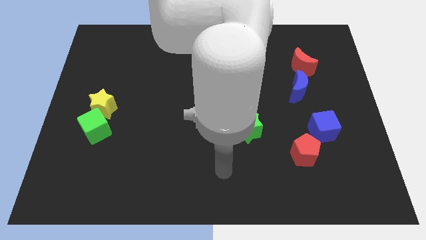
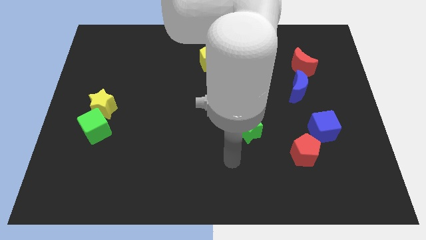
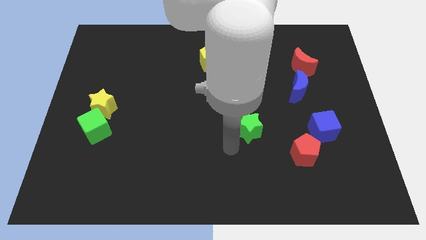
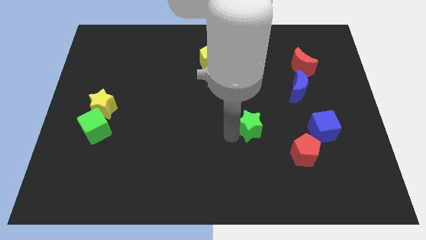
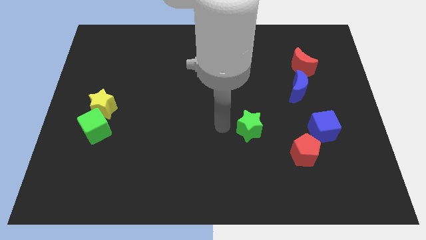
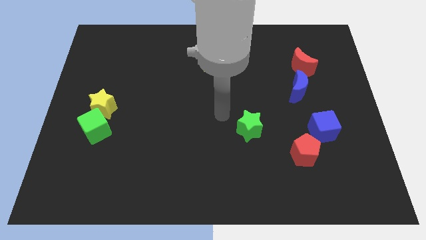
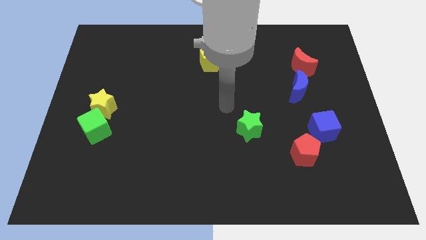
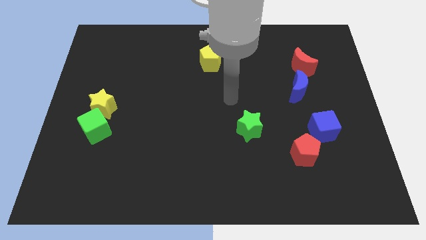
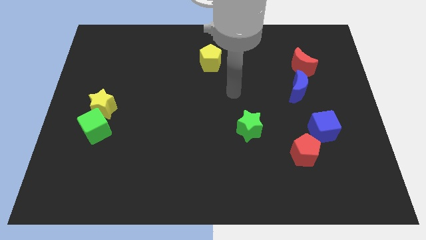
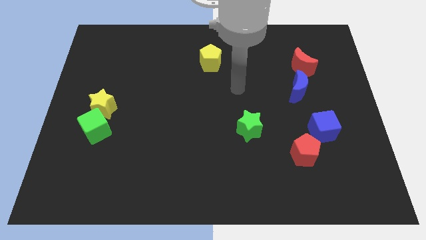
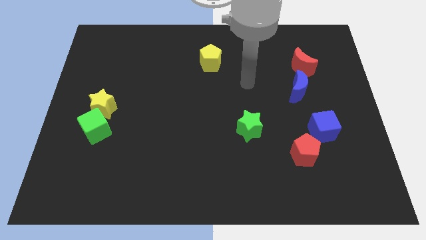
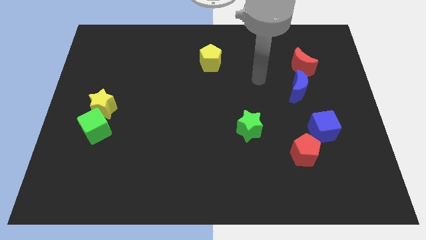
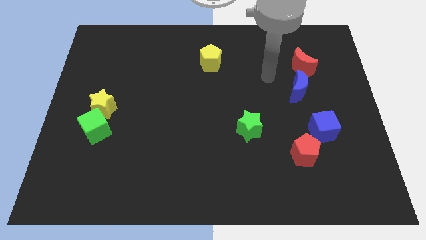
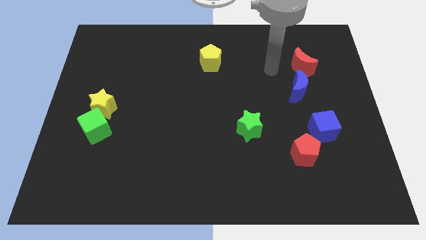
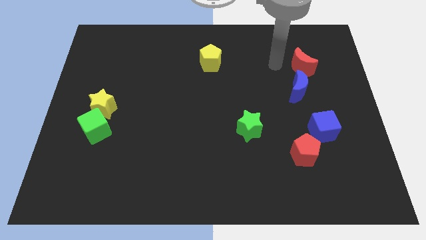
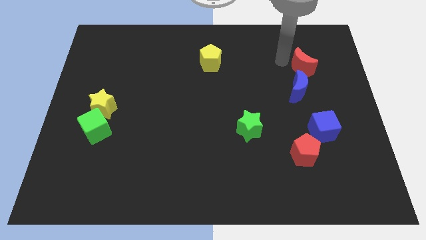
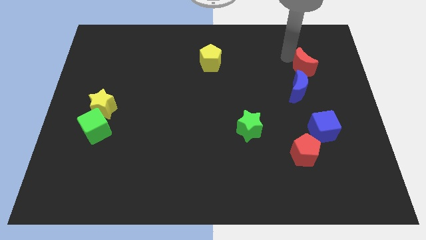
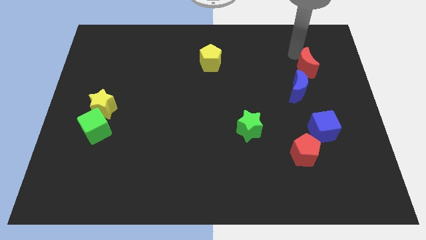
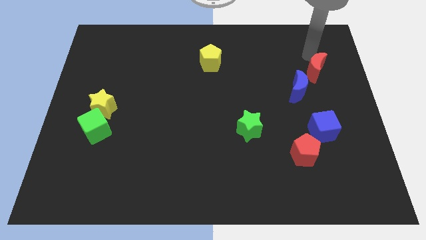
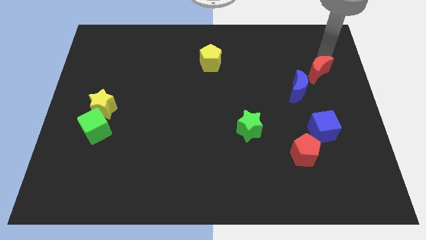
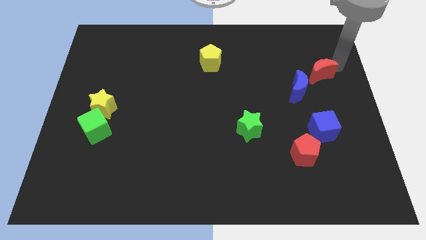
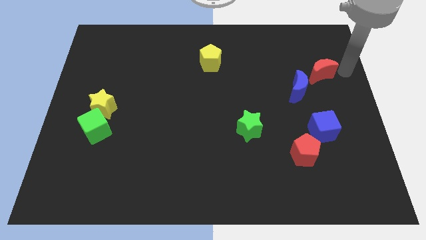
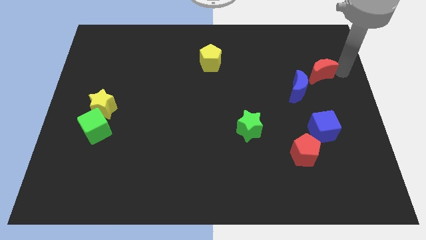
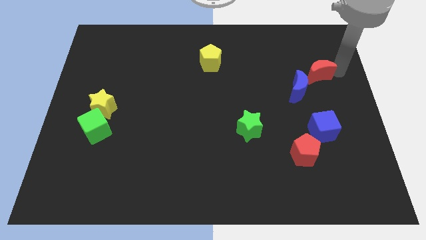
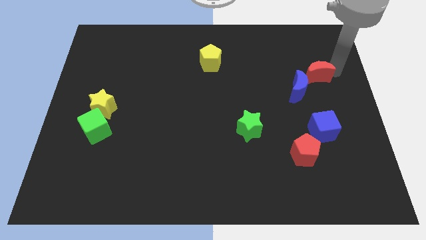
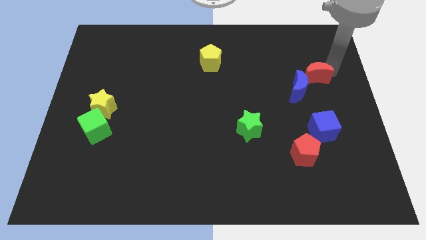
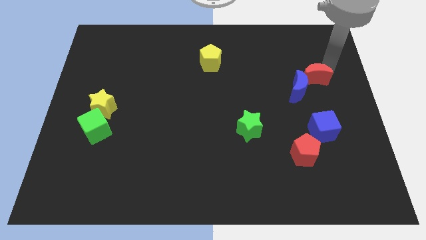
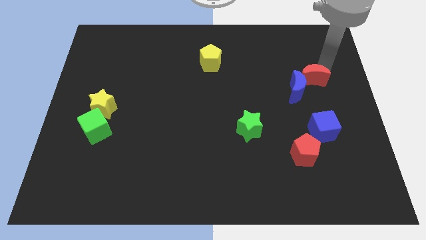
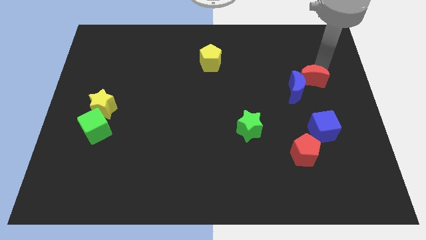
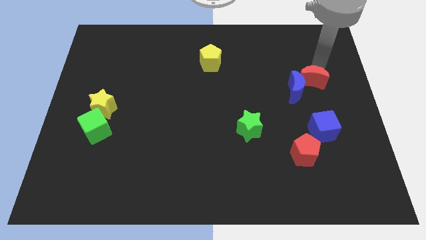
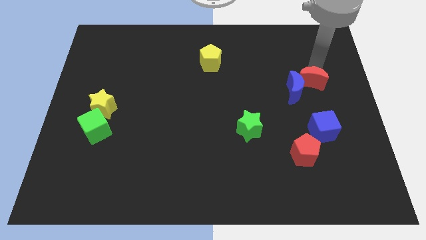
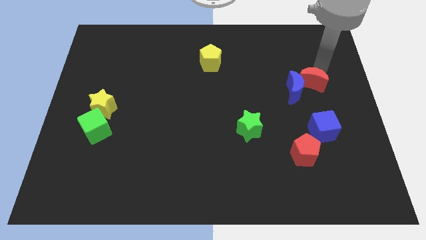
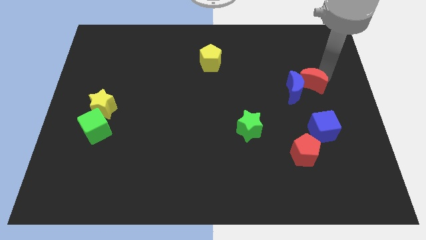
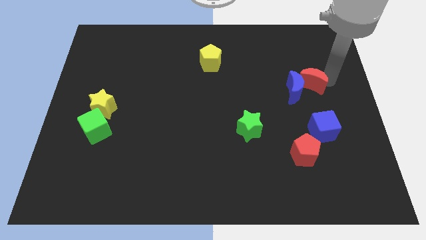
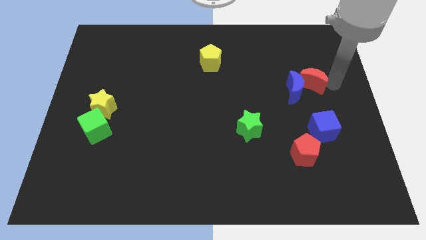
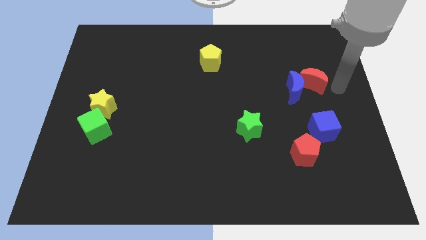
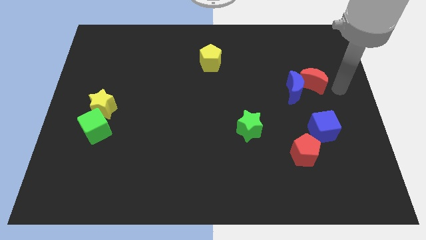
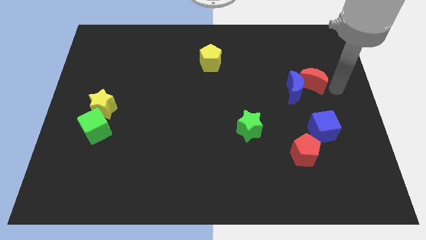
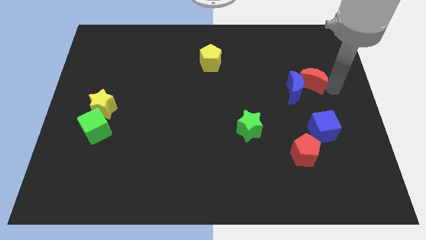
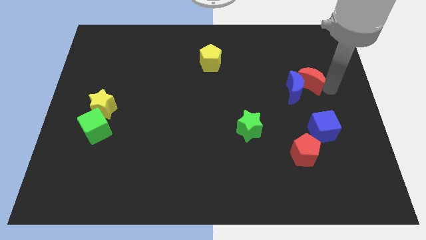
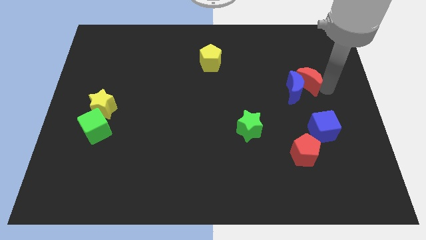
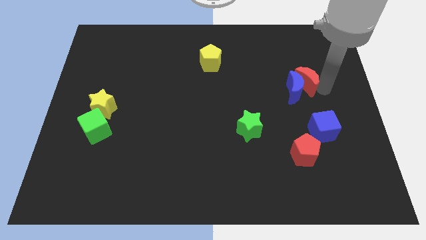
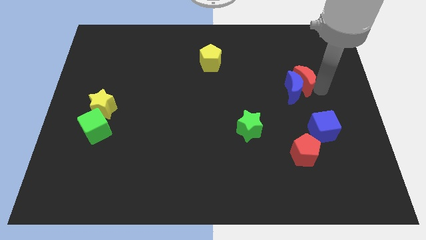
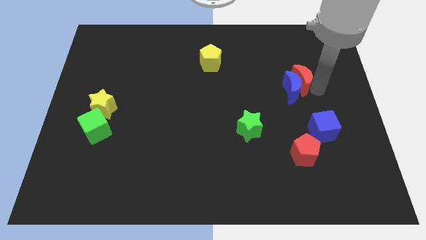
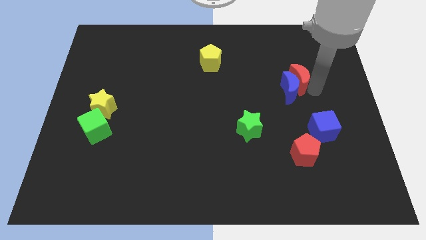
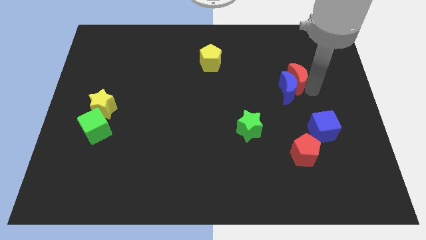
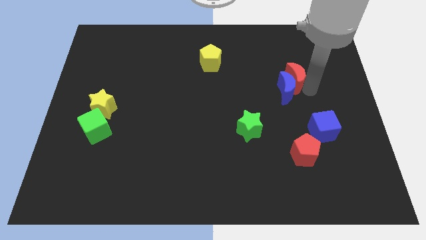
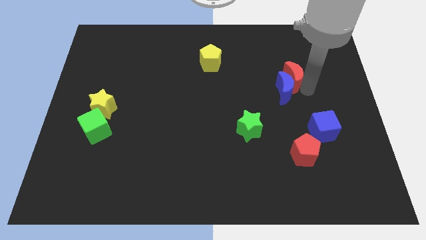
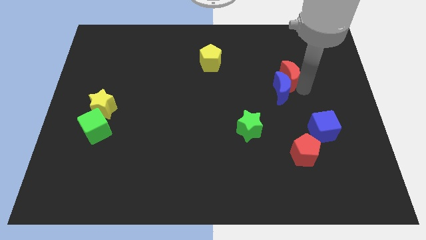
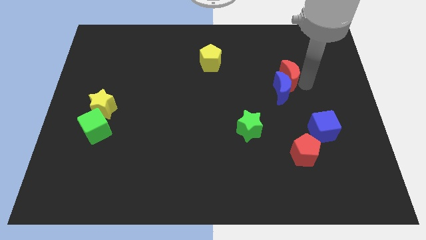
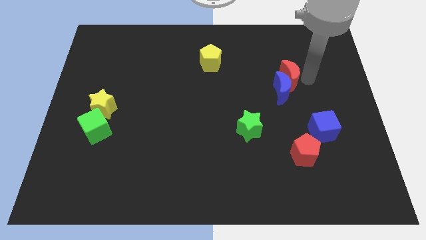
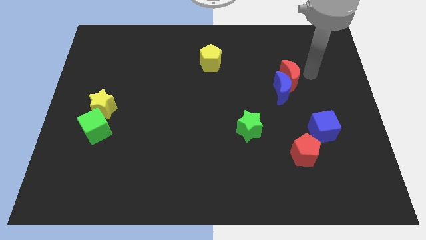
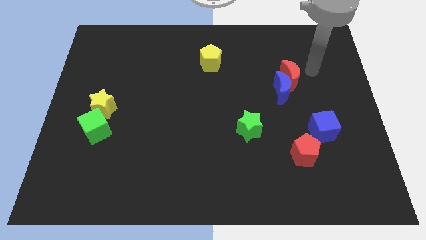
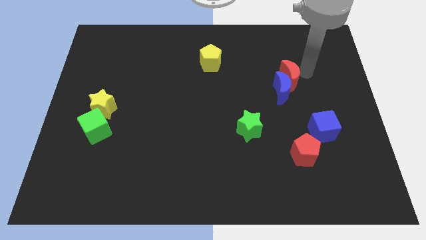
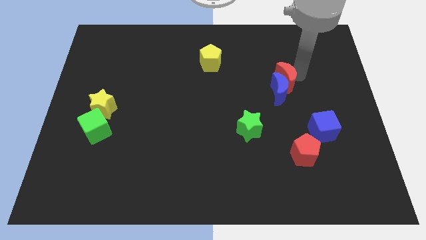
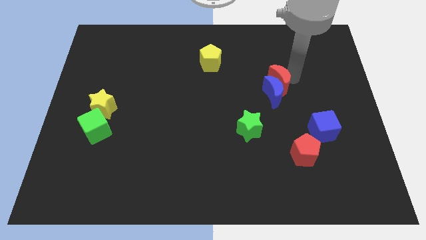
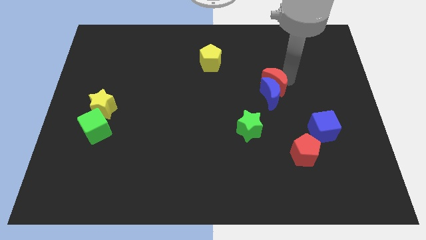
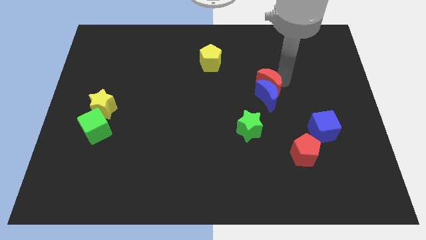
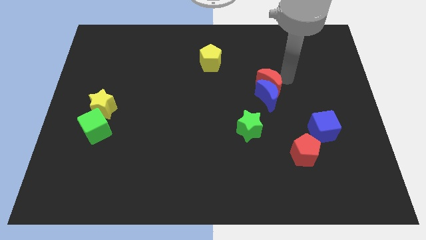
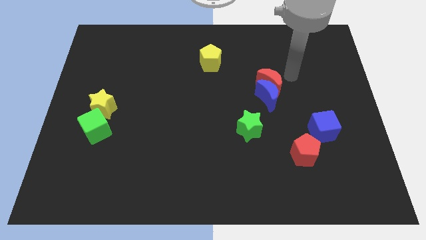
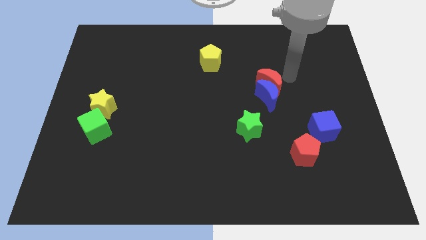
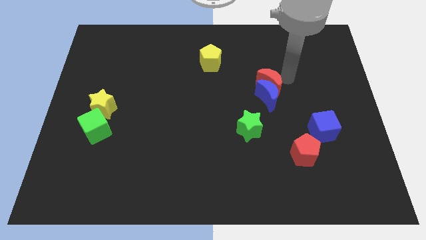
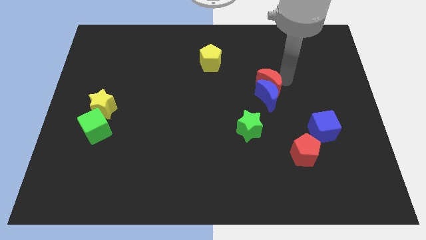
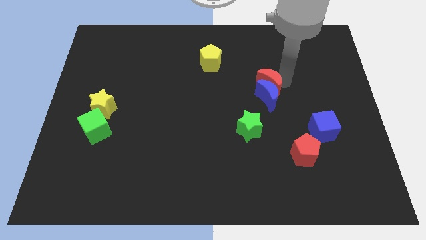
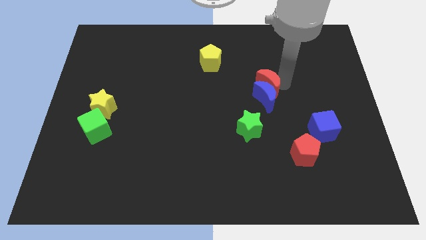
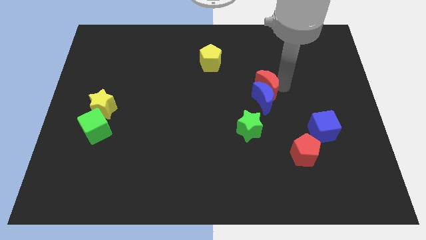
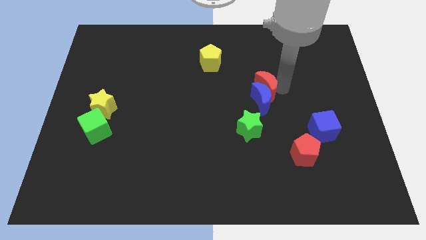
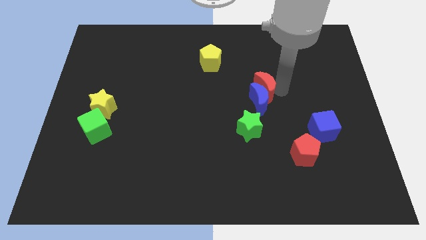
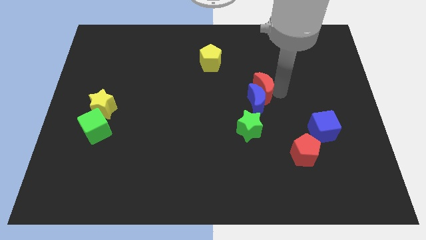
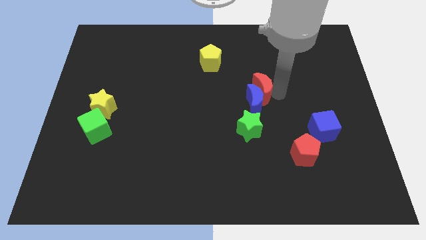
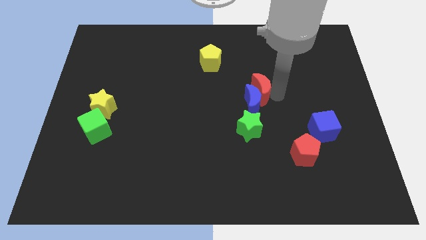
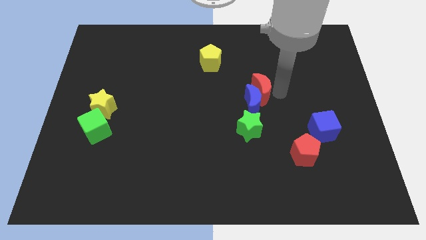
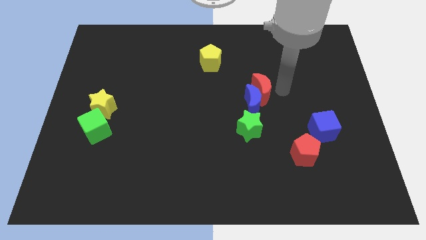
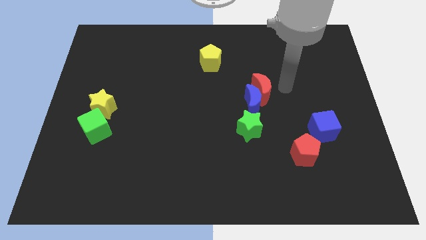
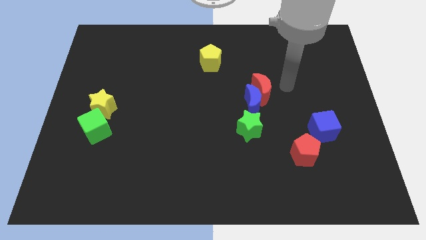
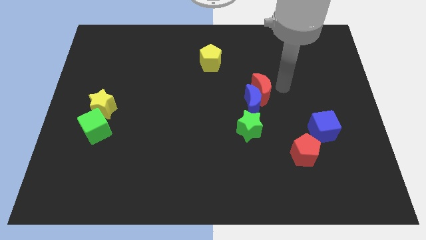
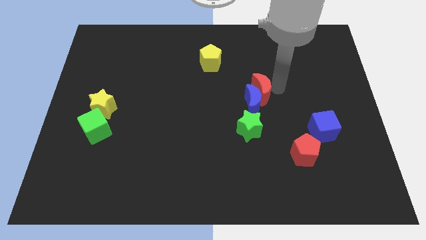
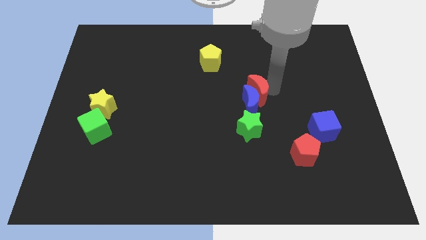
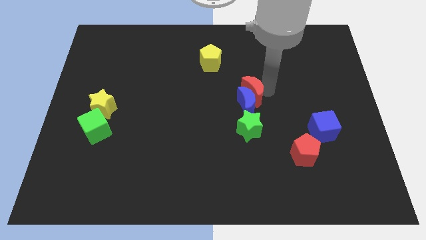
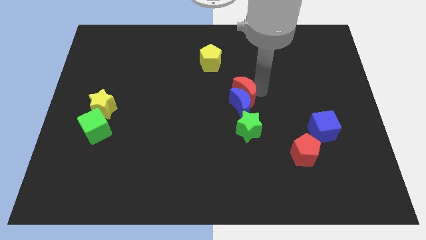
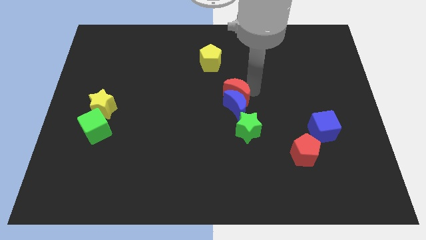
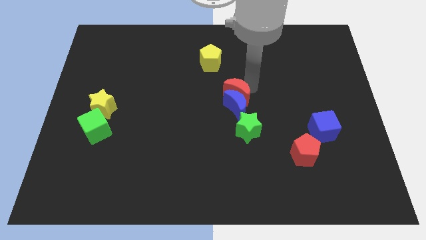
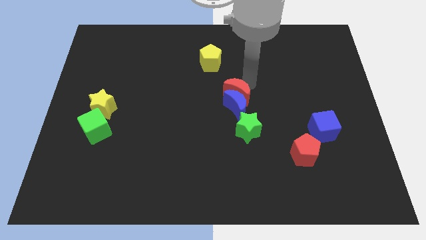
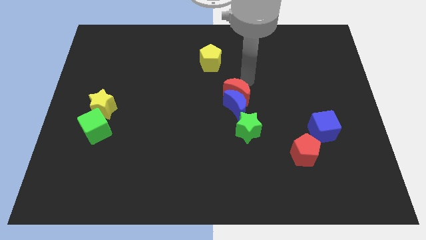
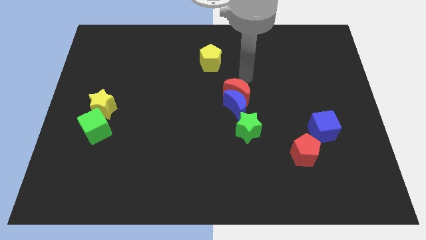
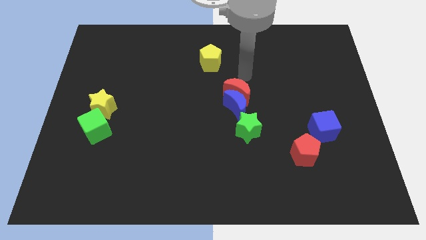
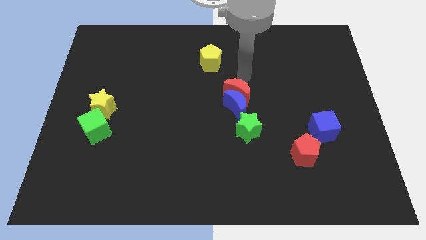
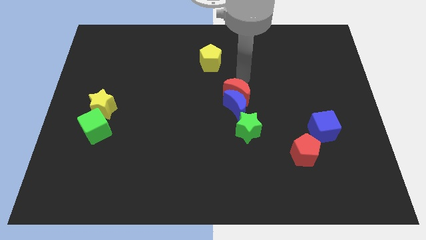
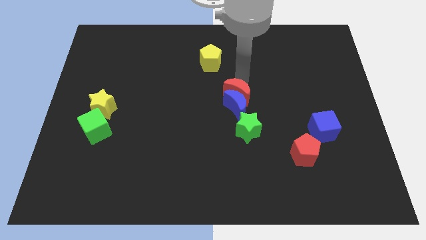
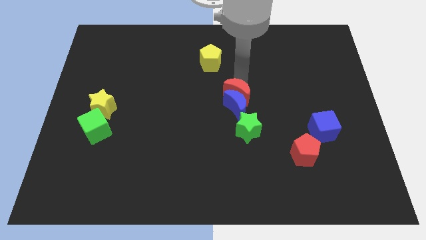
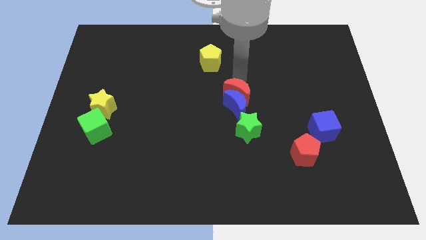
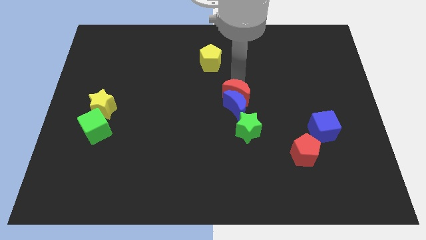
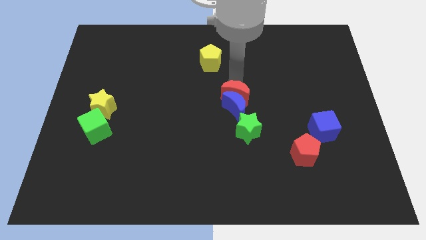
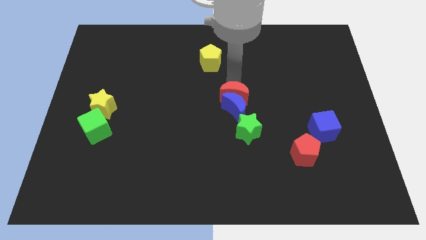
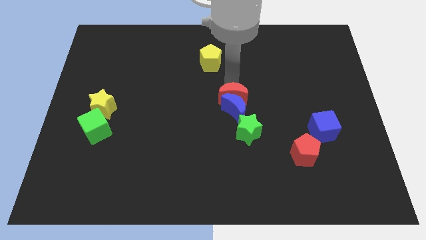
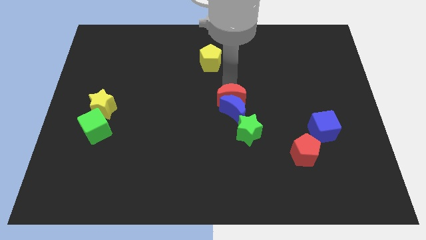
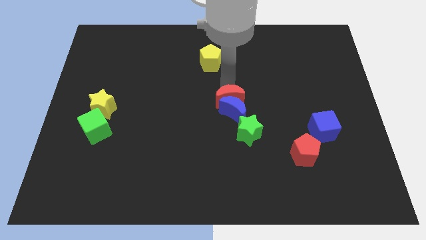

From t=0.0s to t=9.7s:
push the red moon downwards and left diagonally
